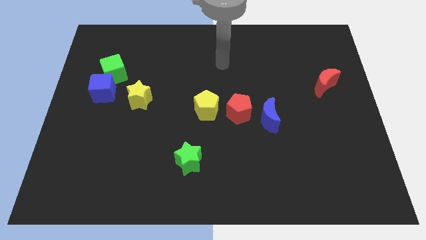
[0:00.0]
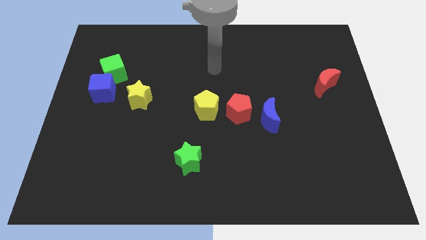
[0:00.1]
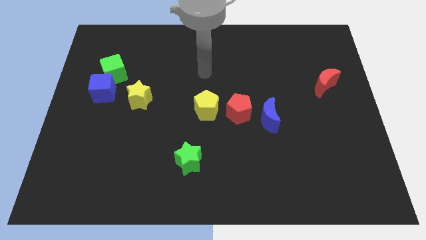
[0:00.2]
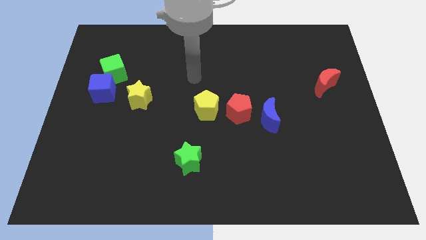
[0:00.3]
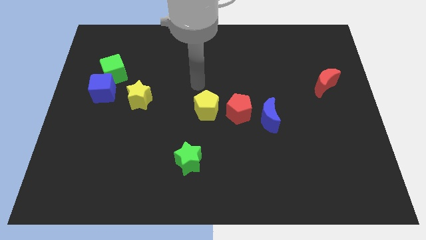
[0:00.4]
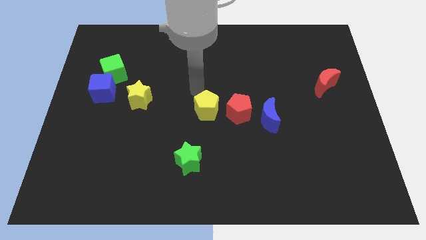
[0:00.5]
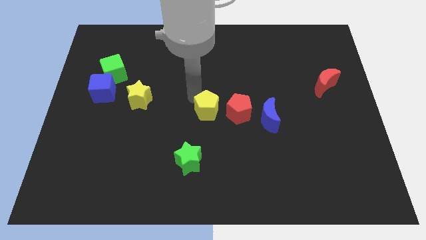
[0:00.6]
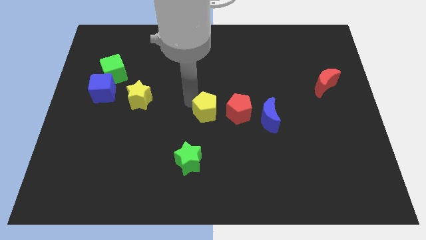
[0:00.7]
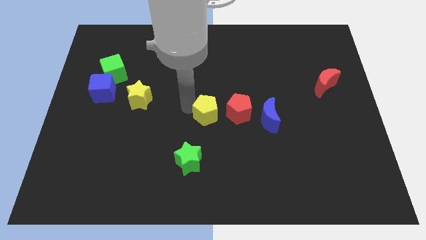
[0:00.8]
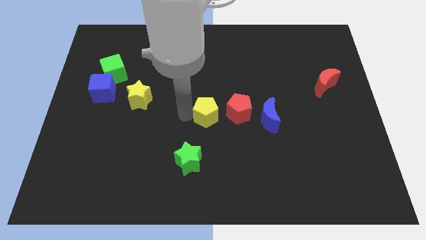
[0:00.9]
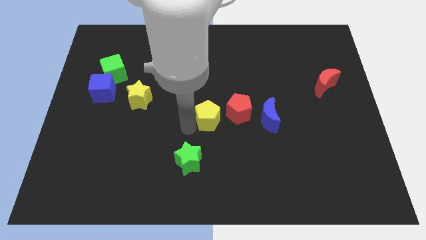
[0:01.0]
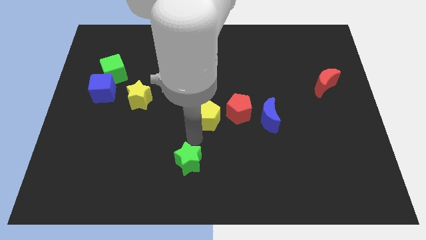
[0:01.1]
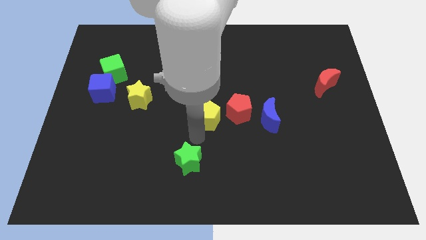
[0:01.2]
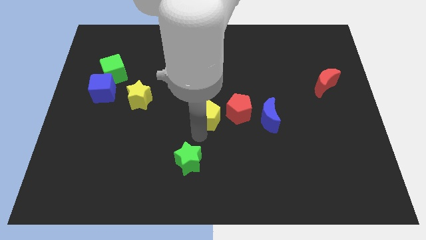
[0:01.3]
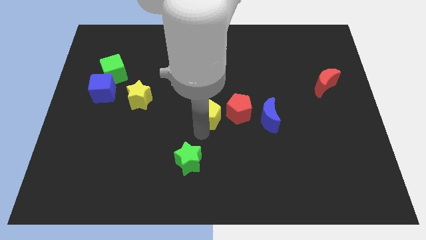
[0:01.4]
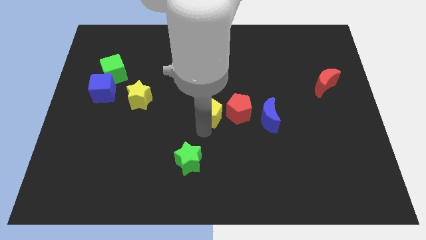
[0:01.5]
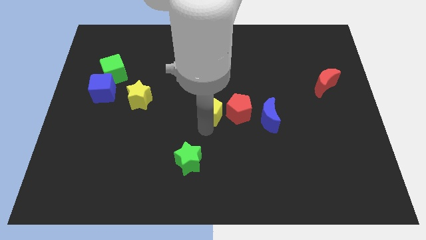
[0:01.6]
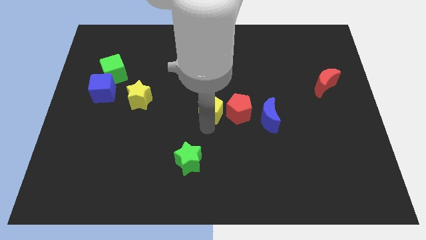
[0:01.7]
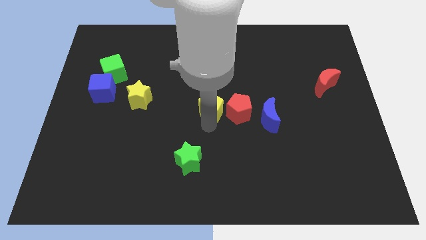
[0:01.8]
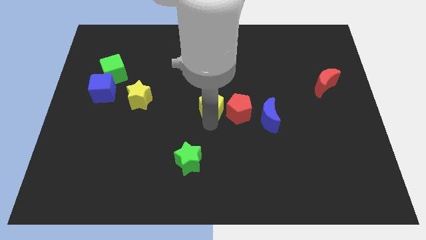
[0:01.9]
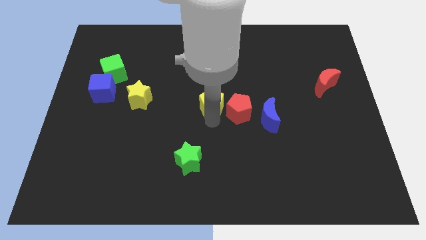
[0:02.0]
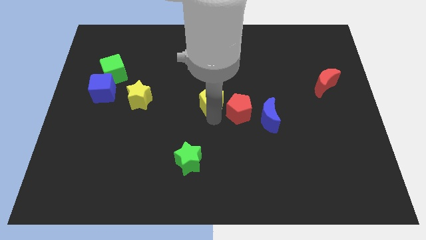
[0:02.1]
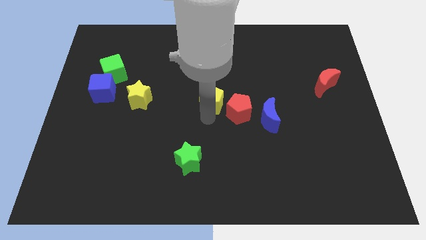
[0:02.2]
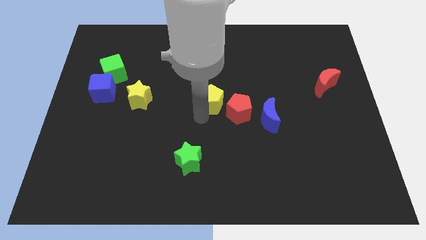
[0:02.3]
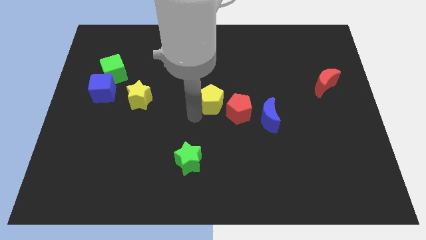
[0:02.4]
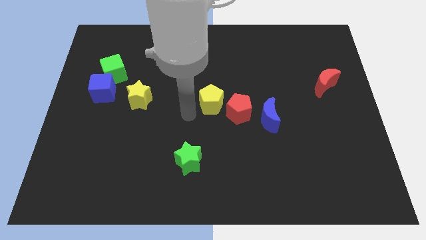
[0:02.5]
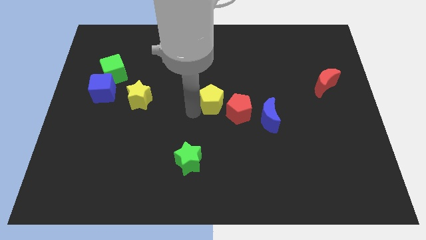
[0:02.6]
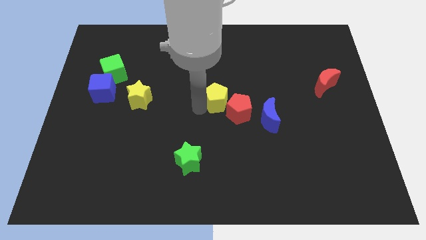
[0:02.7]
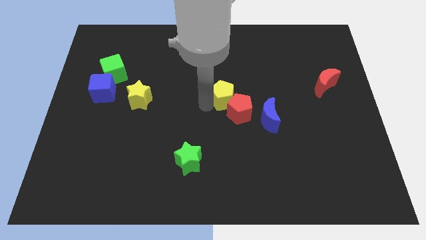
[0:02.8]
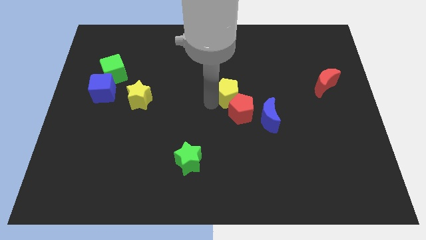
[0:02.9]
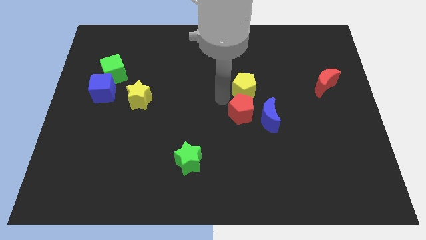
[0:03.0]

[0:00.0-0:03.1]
slightly push the yellow pentagon upwards and to the right diagonally

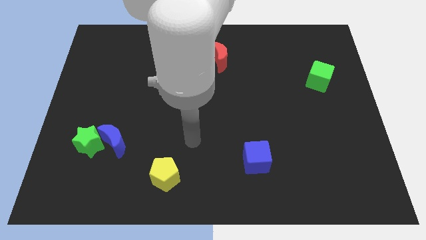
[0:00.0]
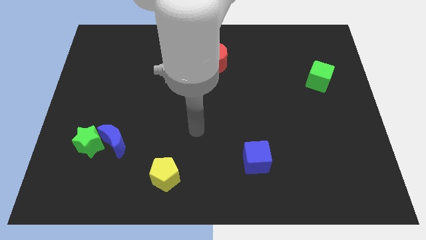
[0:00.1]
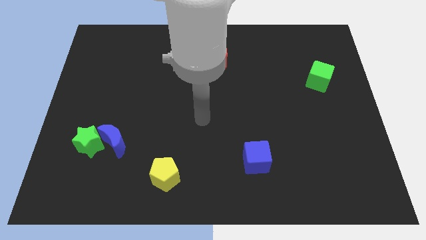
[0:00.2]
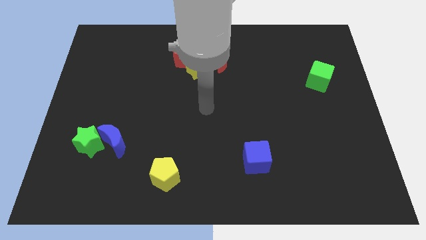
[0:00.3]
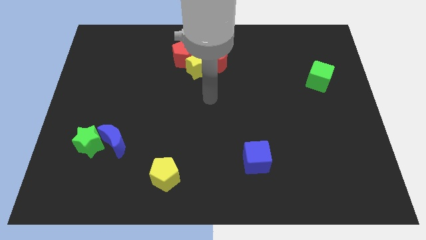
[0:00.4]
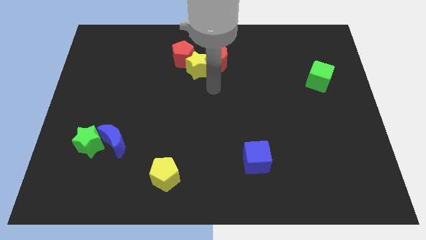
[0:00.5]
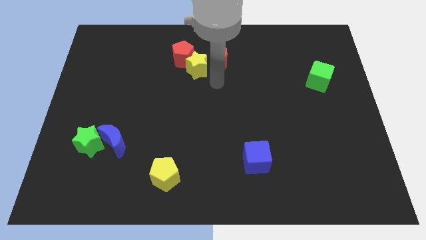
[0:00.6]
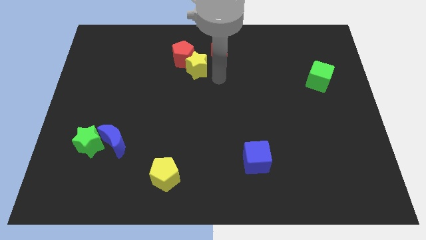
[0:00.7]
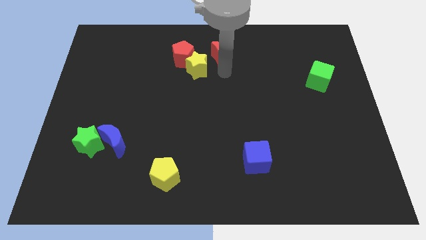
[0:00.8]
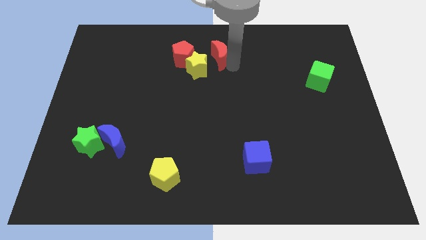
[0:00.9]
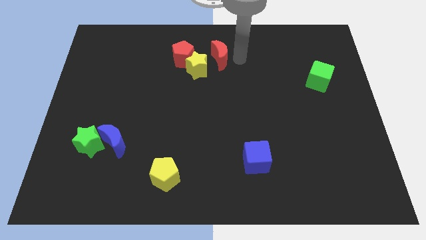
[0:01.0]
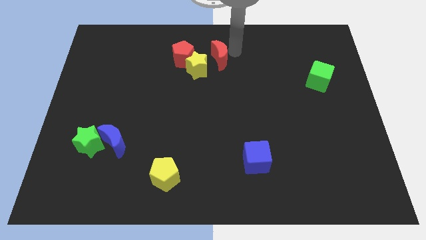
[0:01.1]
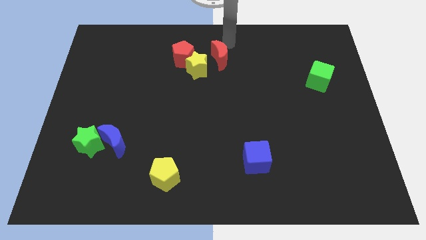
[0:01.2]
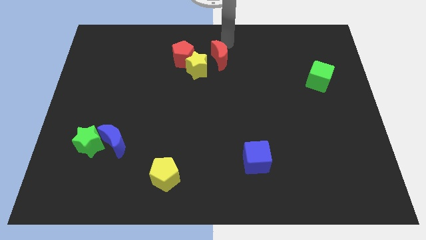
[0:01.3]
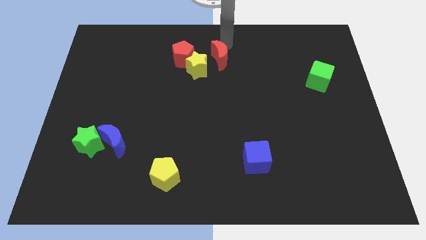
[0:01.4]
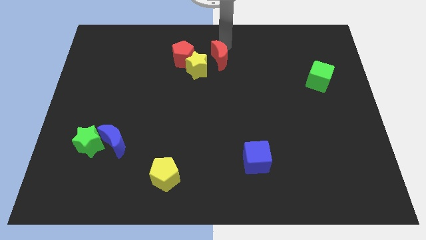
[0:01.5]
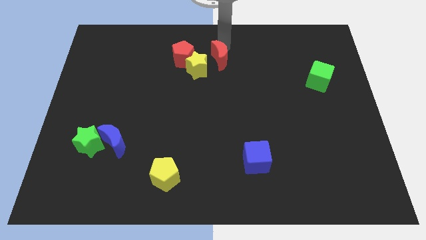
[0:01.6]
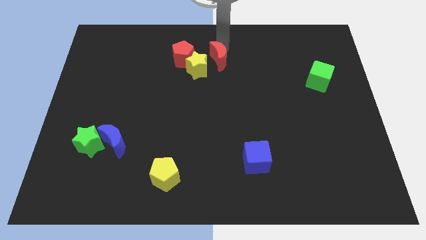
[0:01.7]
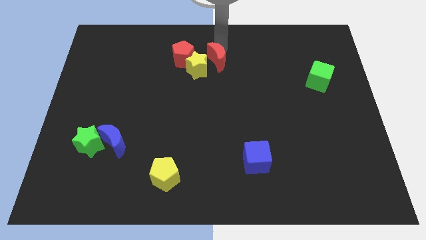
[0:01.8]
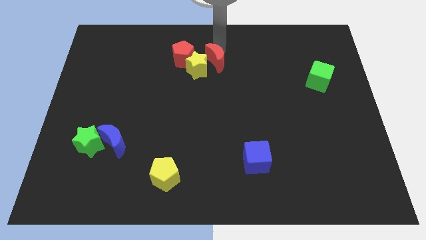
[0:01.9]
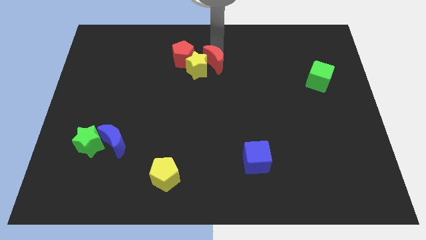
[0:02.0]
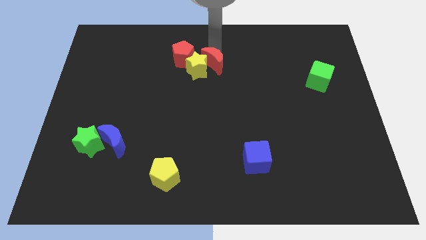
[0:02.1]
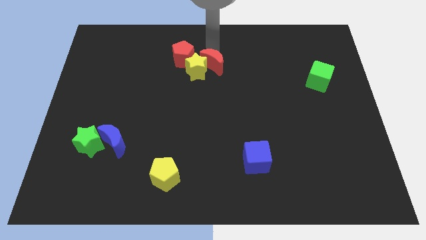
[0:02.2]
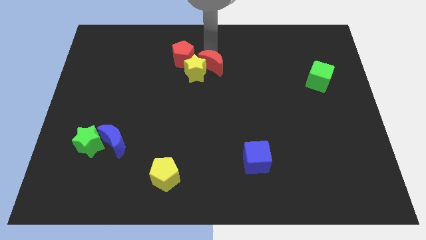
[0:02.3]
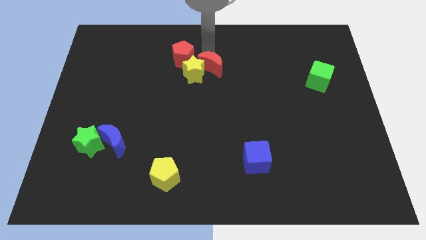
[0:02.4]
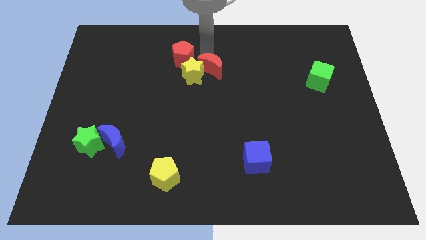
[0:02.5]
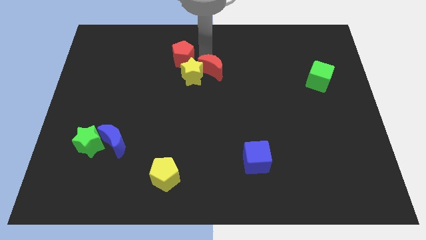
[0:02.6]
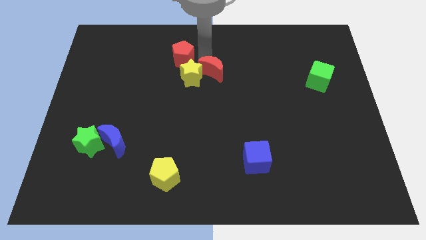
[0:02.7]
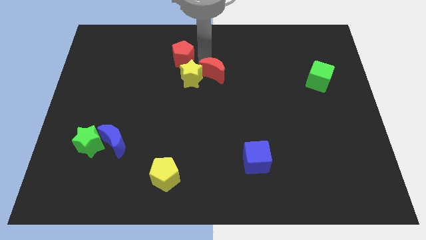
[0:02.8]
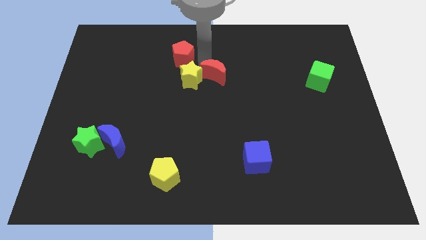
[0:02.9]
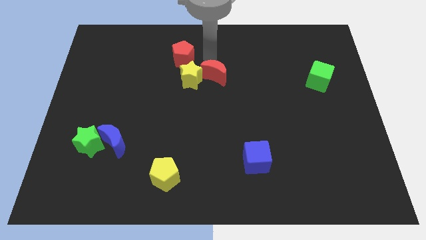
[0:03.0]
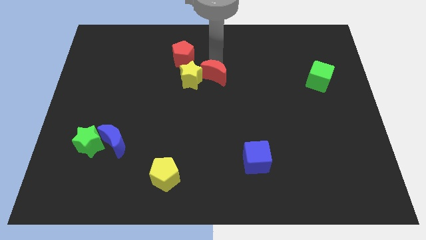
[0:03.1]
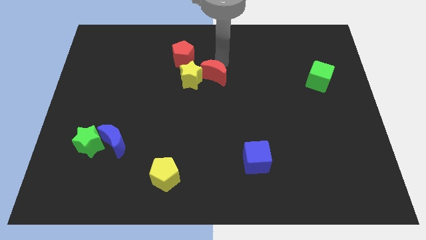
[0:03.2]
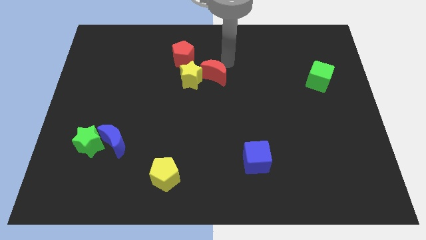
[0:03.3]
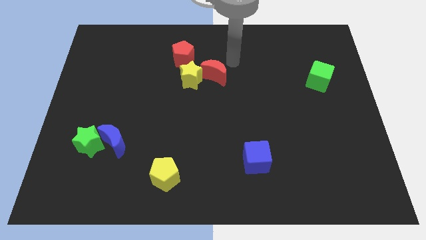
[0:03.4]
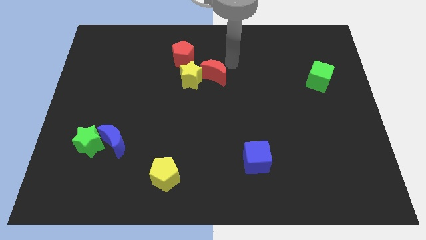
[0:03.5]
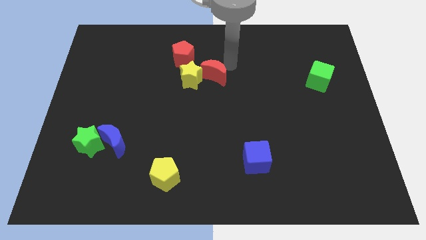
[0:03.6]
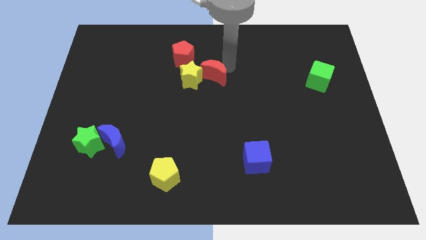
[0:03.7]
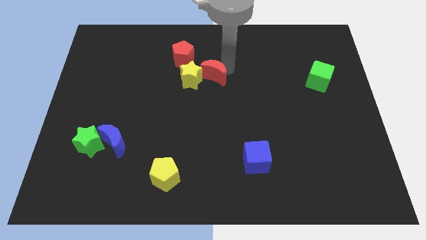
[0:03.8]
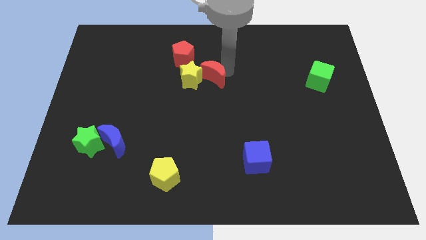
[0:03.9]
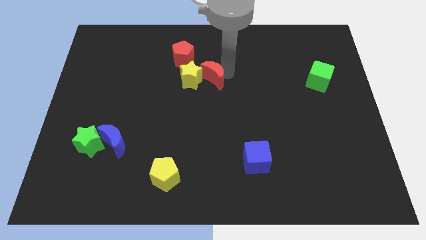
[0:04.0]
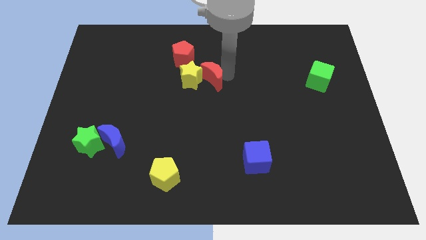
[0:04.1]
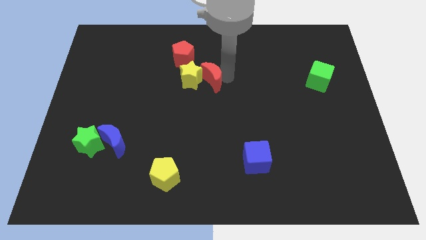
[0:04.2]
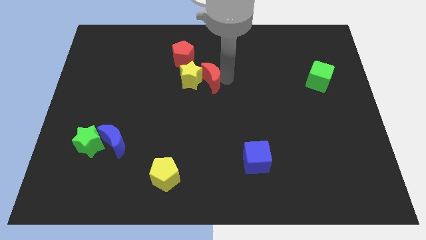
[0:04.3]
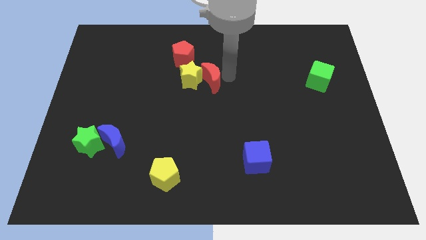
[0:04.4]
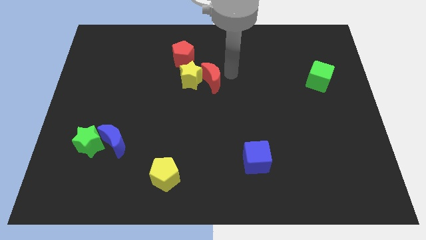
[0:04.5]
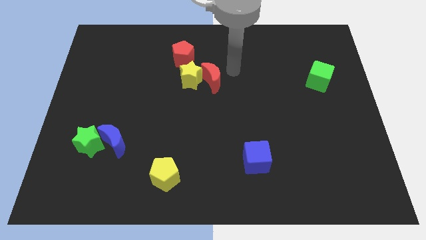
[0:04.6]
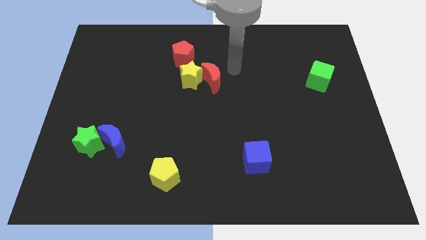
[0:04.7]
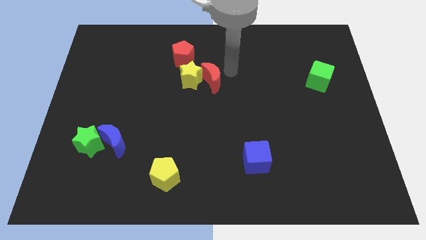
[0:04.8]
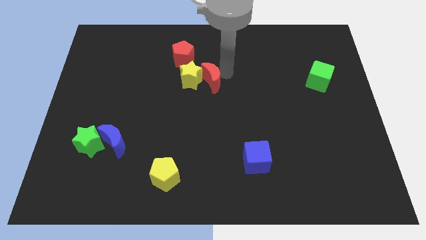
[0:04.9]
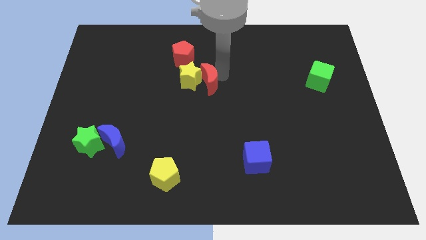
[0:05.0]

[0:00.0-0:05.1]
push the red moon somewhat down and left
